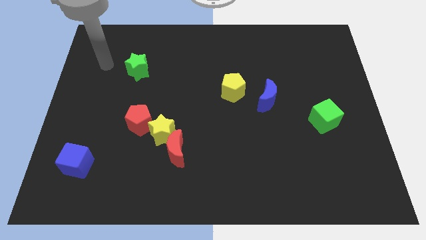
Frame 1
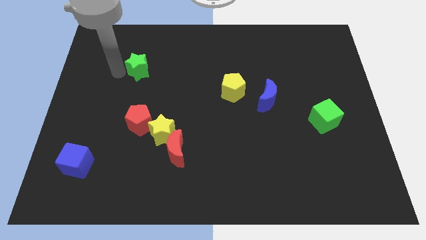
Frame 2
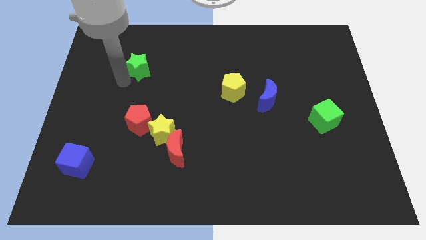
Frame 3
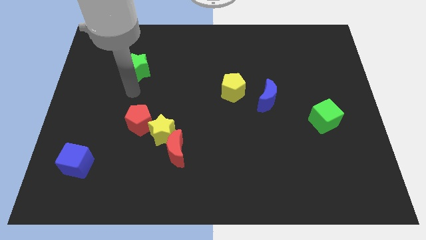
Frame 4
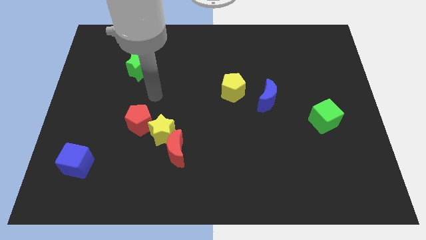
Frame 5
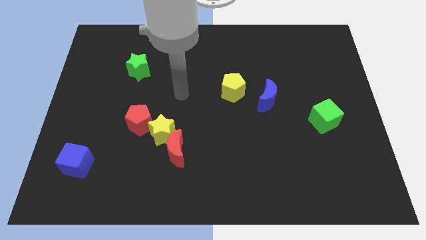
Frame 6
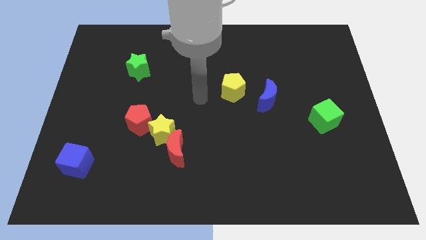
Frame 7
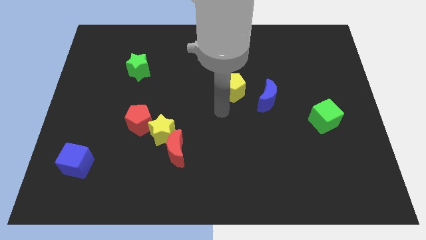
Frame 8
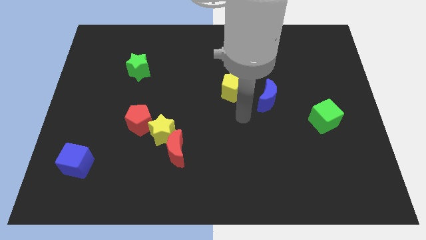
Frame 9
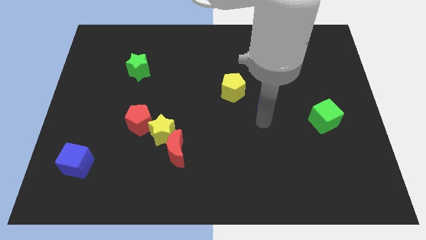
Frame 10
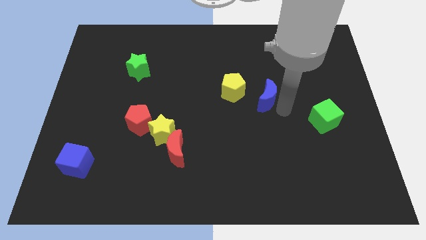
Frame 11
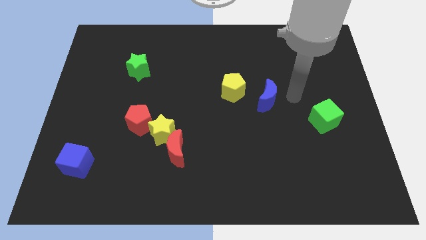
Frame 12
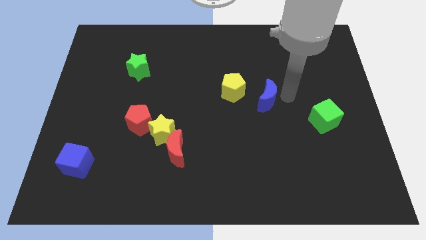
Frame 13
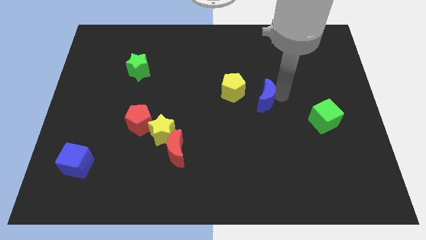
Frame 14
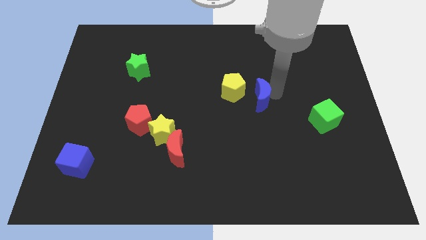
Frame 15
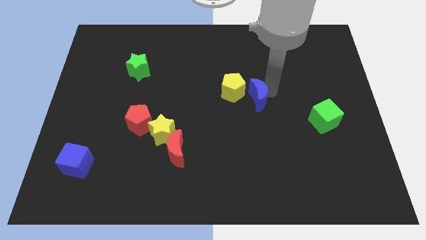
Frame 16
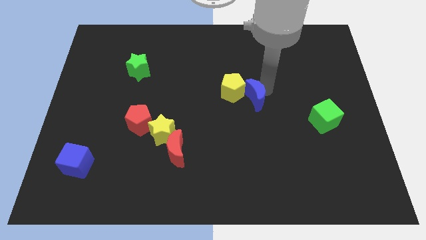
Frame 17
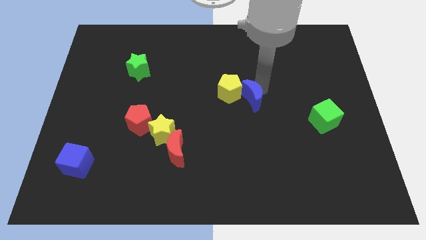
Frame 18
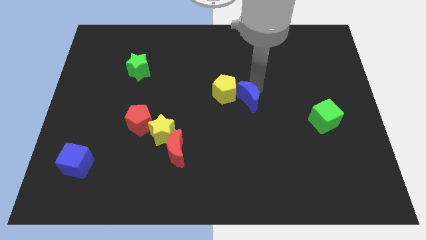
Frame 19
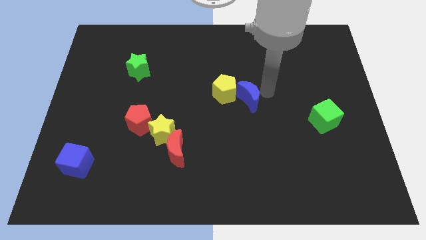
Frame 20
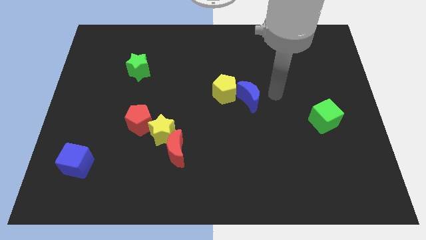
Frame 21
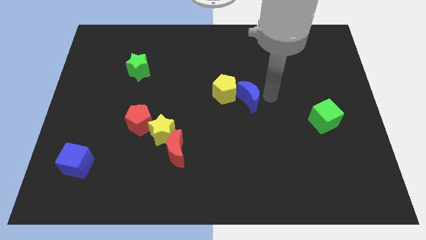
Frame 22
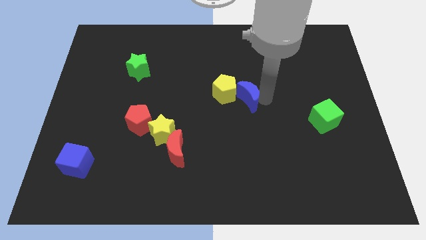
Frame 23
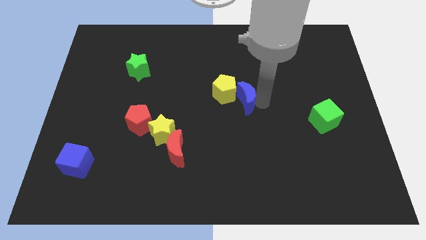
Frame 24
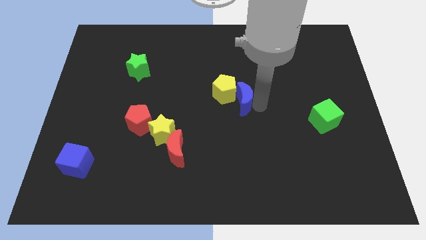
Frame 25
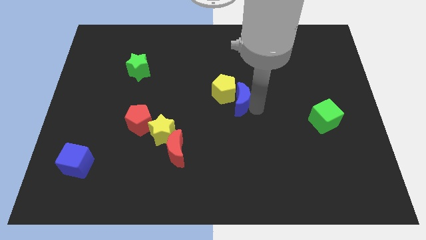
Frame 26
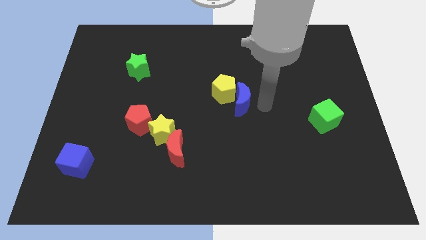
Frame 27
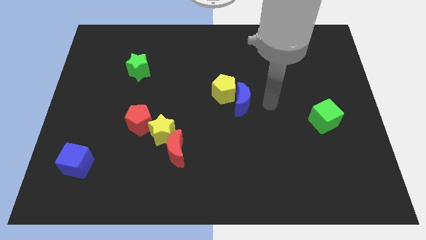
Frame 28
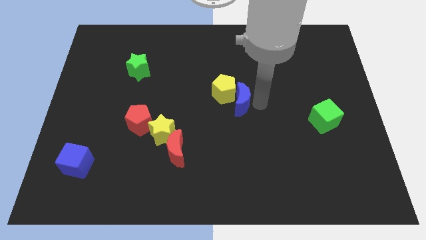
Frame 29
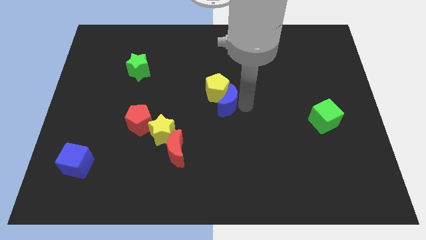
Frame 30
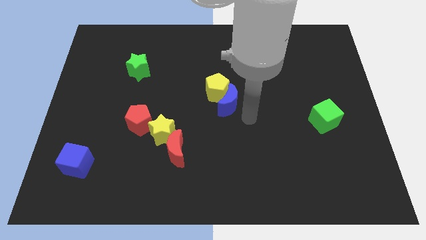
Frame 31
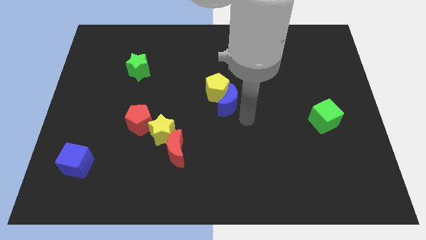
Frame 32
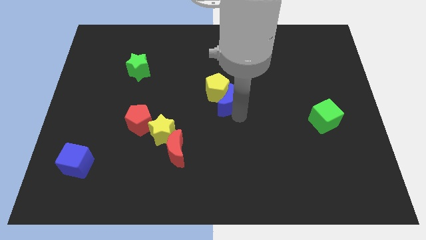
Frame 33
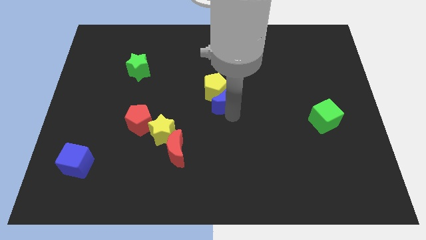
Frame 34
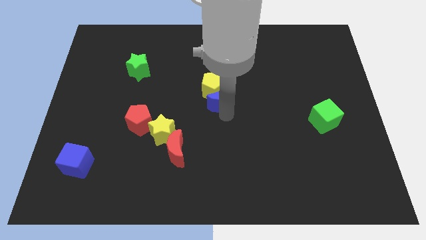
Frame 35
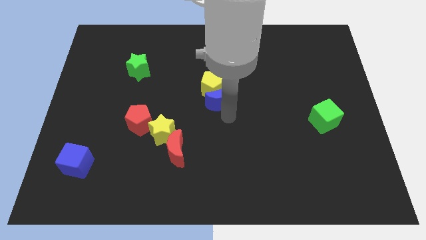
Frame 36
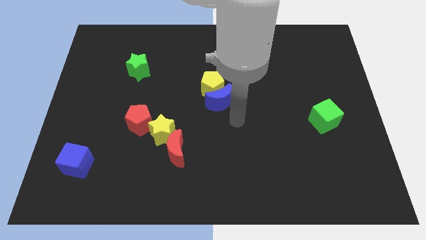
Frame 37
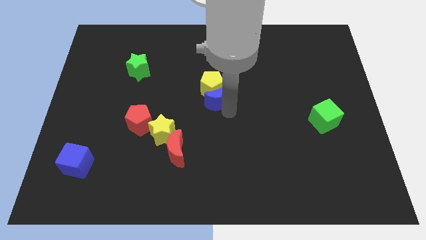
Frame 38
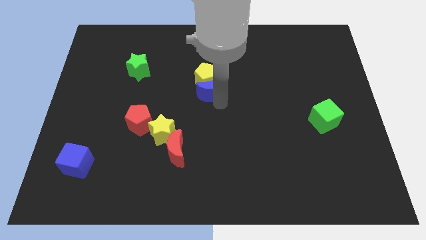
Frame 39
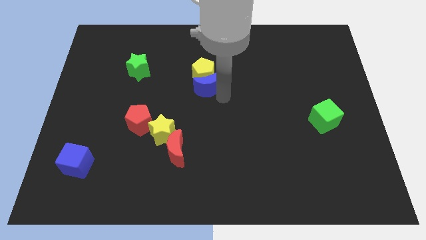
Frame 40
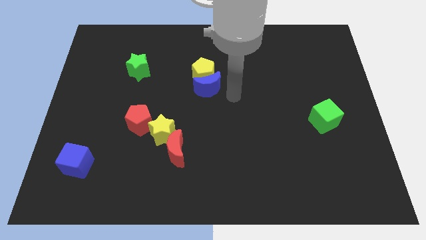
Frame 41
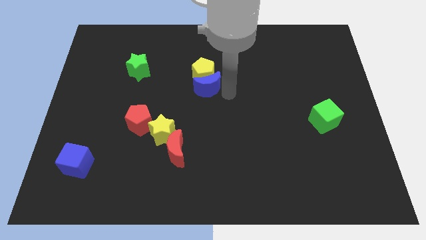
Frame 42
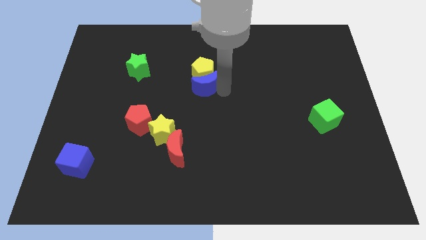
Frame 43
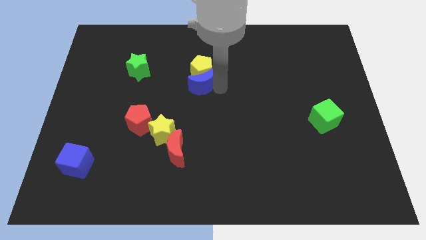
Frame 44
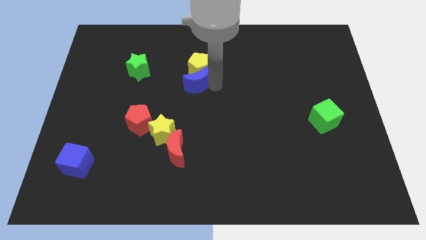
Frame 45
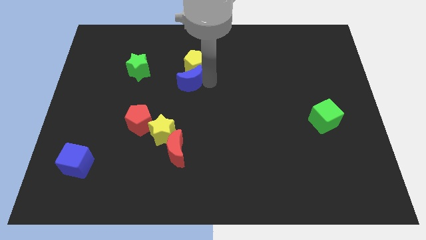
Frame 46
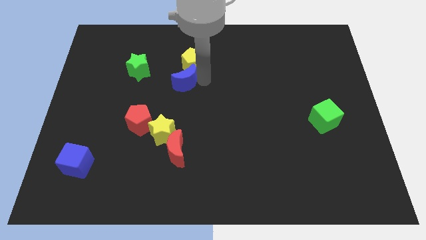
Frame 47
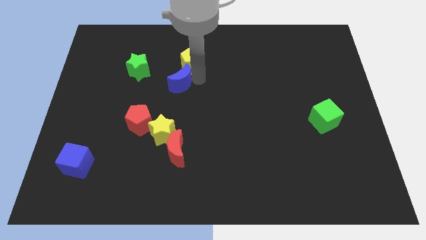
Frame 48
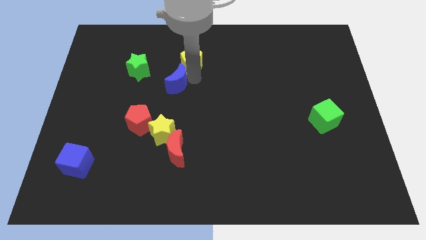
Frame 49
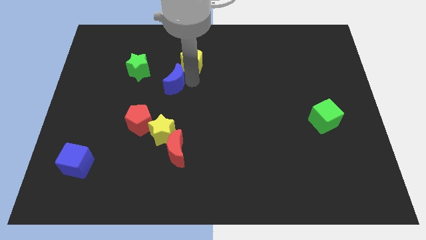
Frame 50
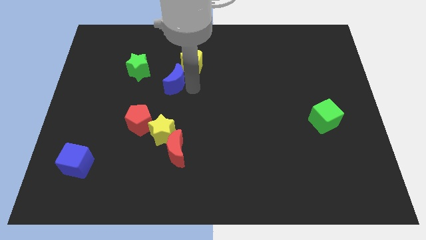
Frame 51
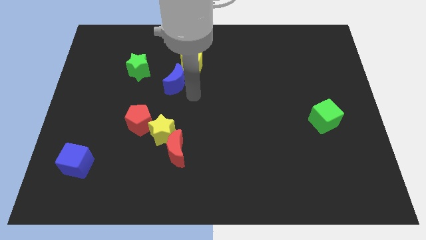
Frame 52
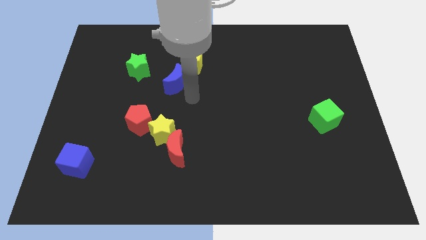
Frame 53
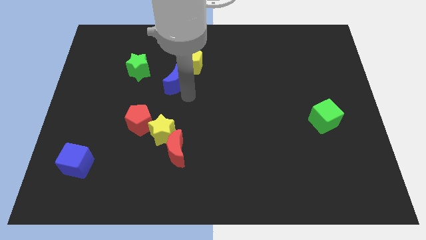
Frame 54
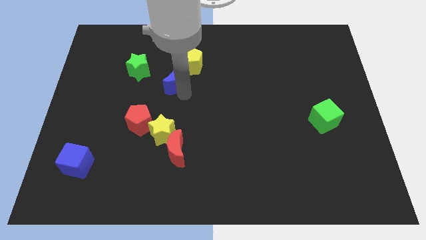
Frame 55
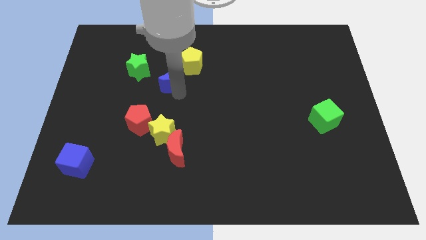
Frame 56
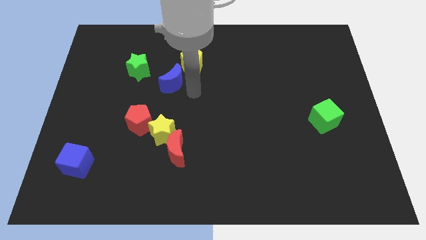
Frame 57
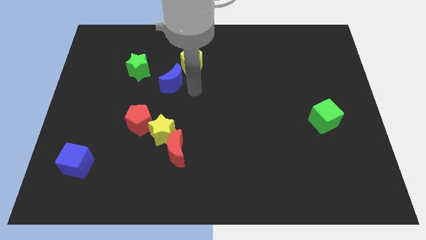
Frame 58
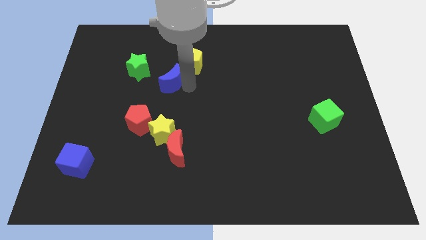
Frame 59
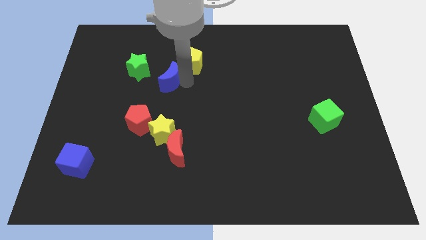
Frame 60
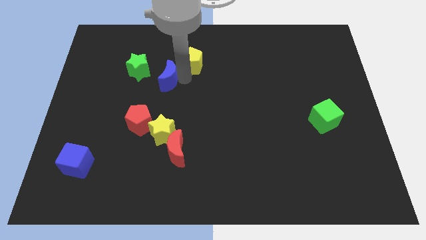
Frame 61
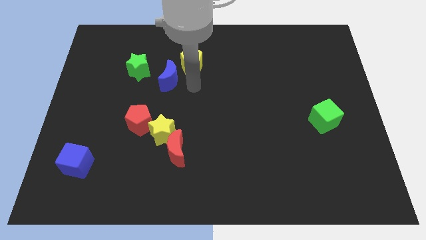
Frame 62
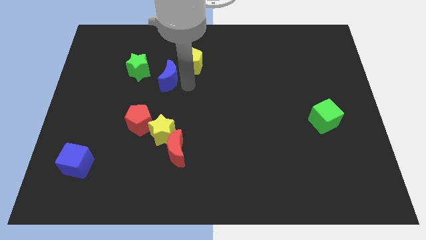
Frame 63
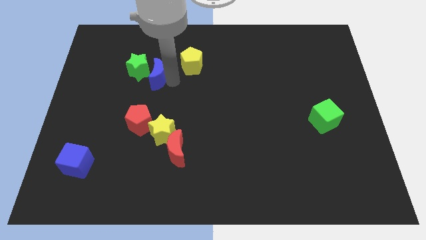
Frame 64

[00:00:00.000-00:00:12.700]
put the blue moon towards the green star

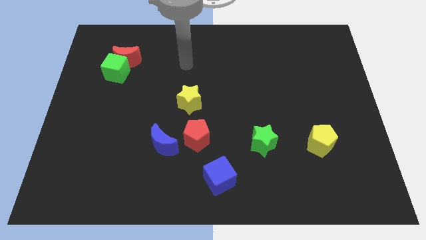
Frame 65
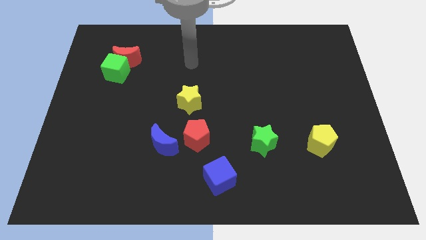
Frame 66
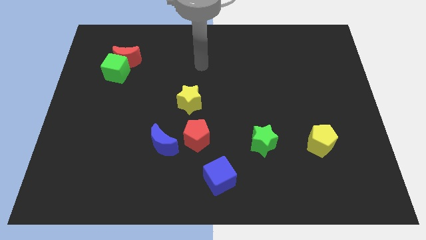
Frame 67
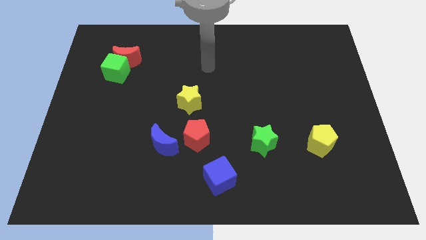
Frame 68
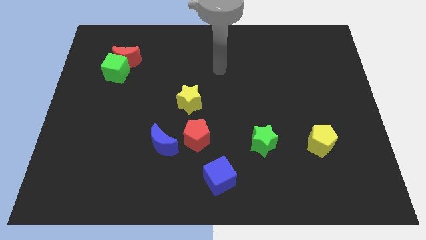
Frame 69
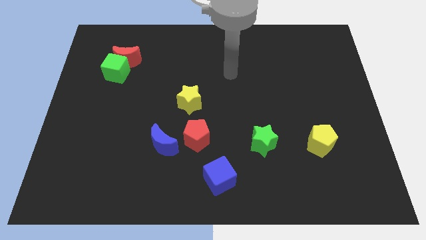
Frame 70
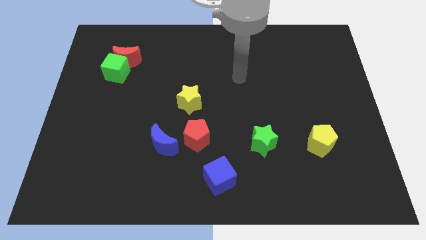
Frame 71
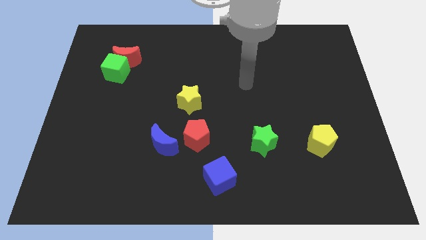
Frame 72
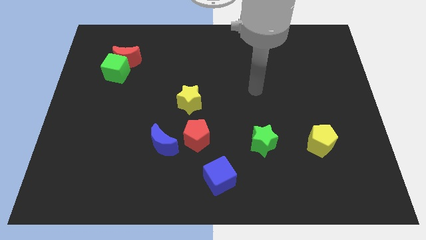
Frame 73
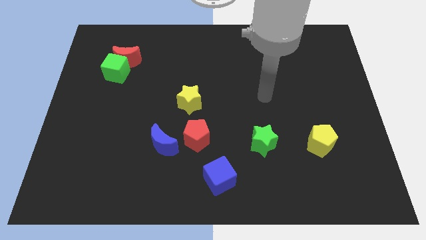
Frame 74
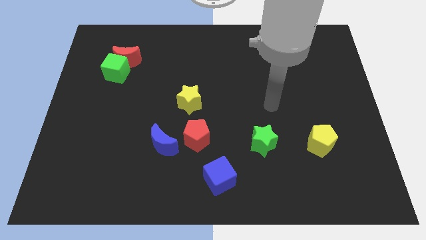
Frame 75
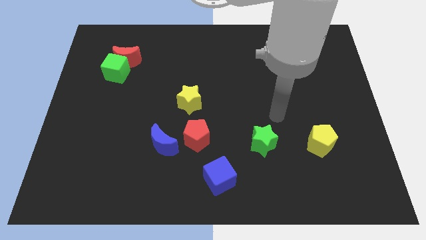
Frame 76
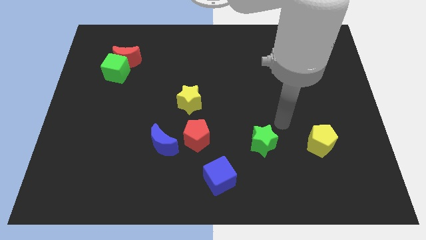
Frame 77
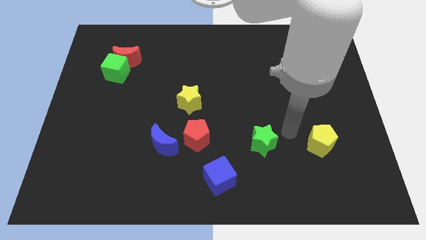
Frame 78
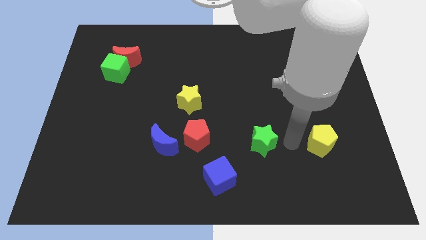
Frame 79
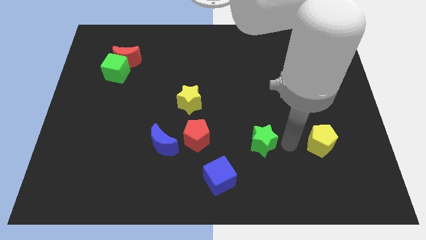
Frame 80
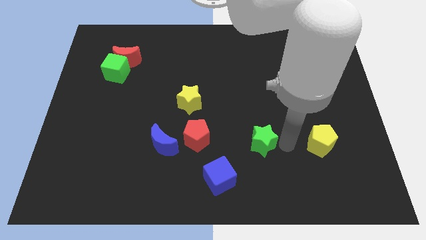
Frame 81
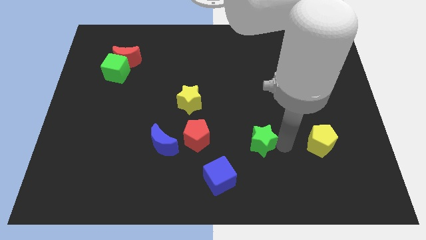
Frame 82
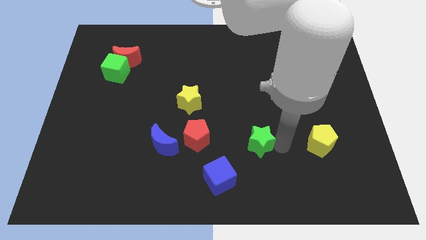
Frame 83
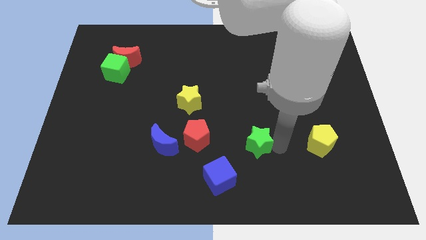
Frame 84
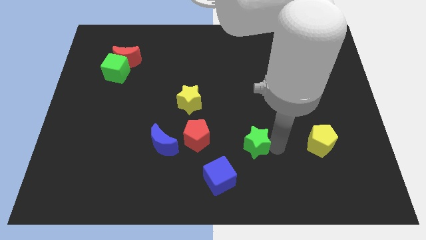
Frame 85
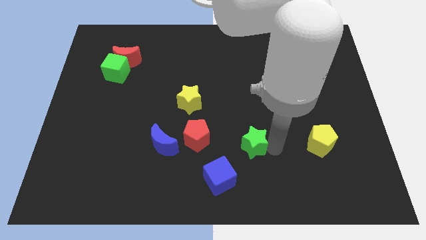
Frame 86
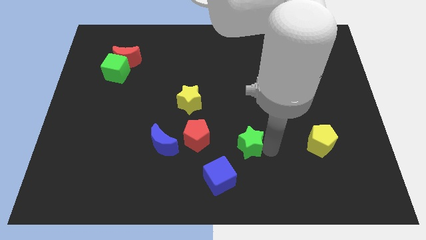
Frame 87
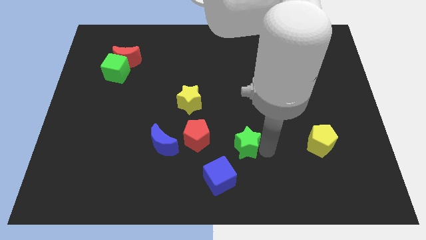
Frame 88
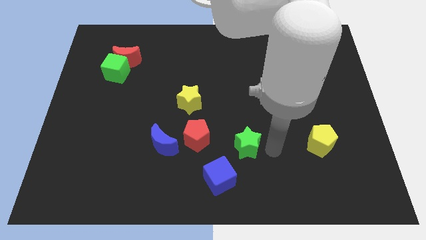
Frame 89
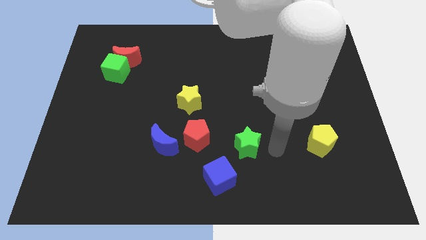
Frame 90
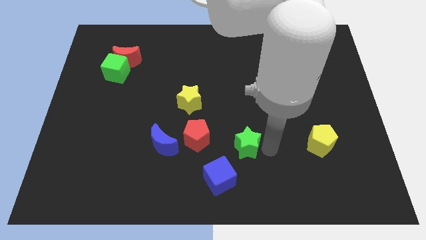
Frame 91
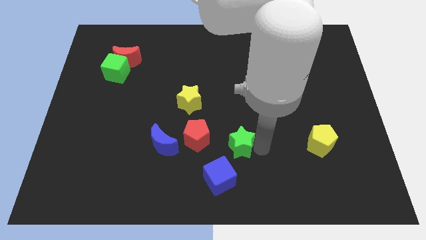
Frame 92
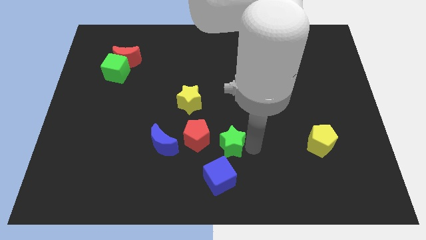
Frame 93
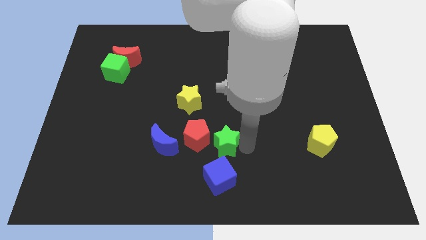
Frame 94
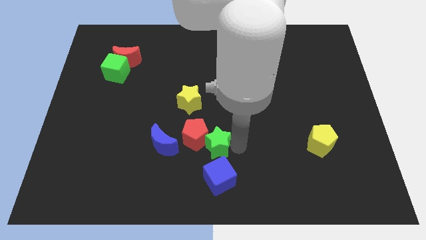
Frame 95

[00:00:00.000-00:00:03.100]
slide the green star to the red pentagon
